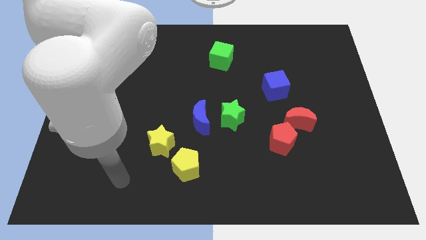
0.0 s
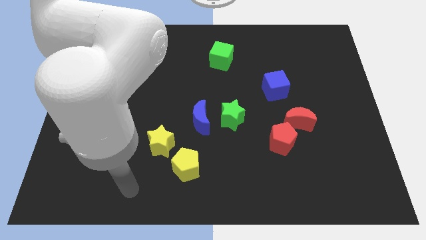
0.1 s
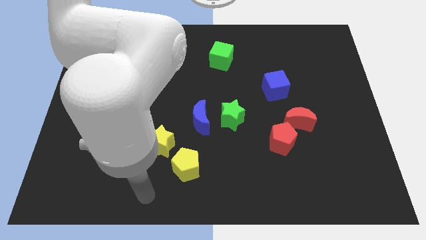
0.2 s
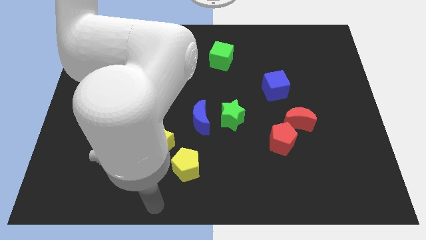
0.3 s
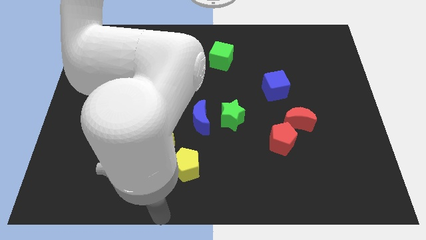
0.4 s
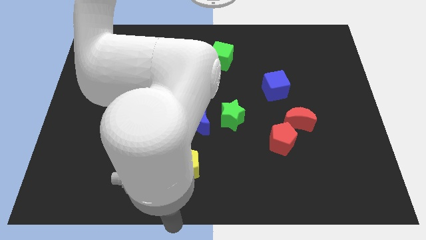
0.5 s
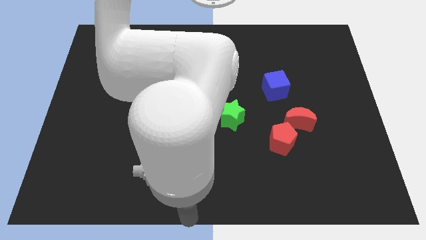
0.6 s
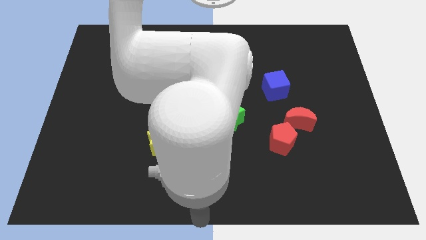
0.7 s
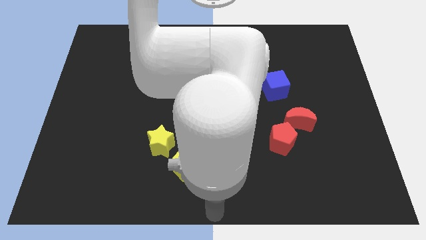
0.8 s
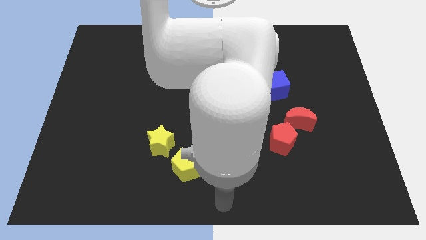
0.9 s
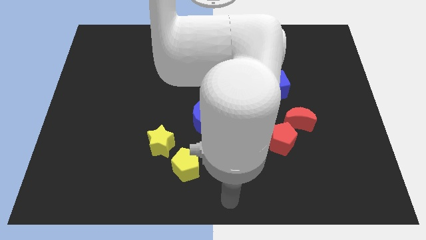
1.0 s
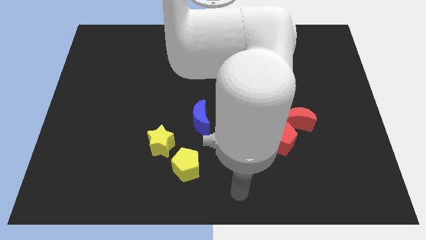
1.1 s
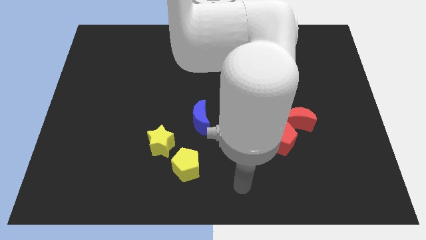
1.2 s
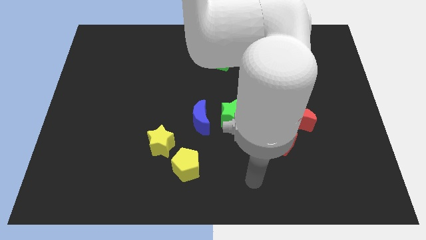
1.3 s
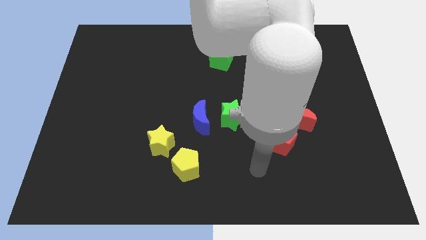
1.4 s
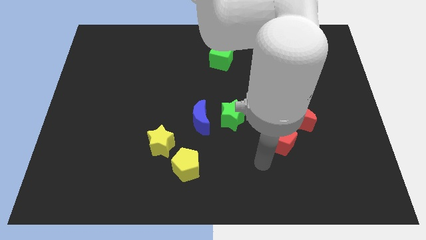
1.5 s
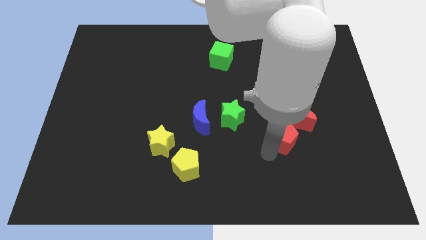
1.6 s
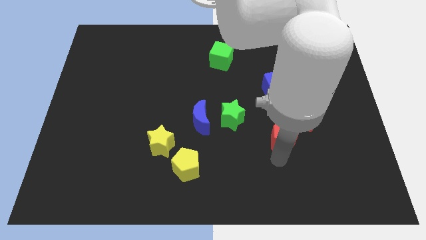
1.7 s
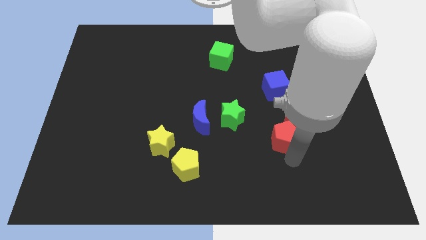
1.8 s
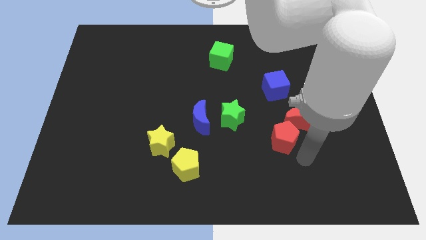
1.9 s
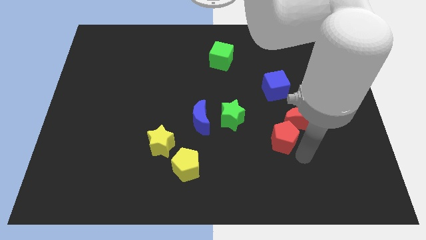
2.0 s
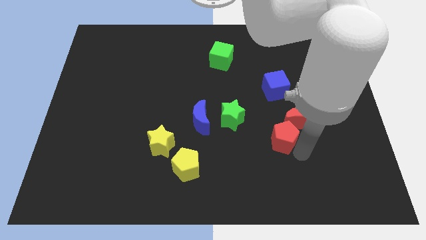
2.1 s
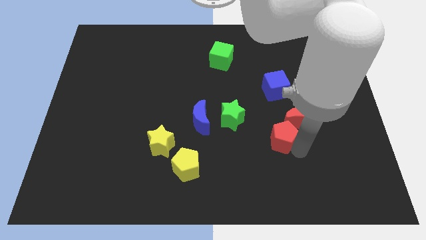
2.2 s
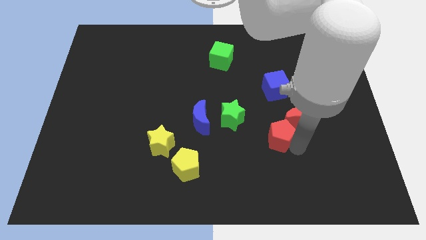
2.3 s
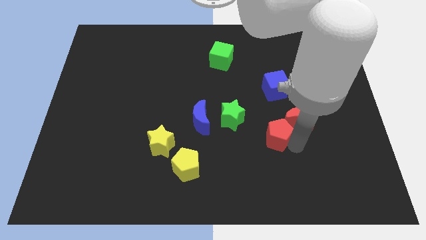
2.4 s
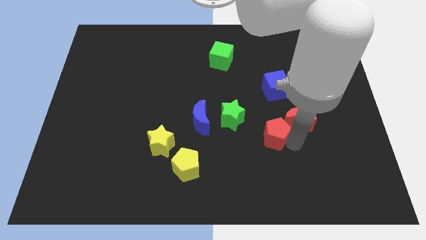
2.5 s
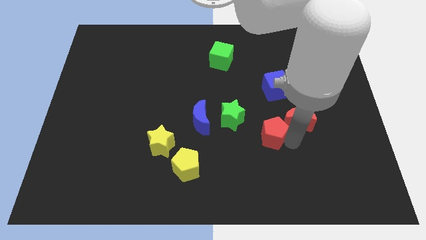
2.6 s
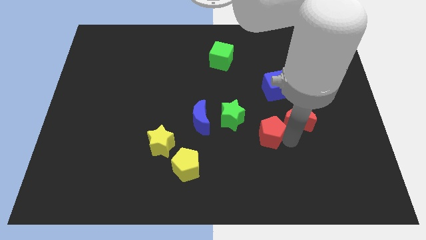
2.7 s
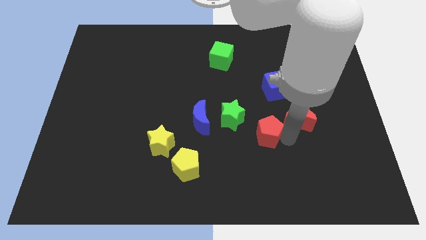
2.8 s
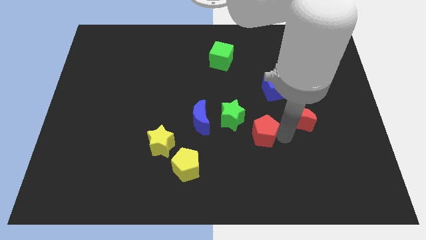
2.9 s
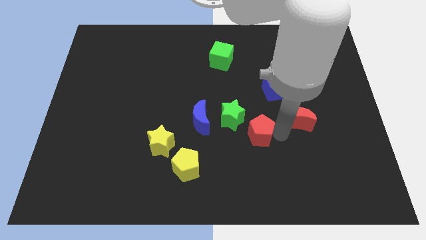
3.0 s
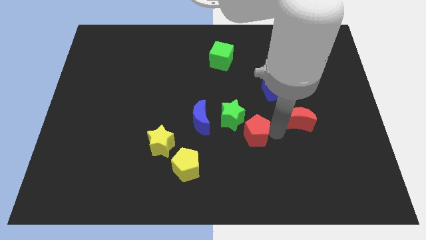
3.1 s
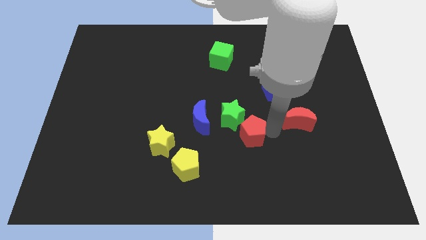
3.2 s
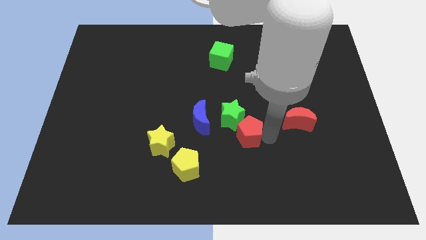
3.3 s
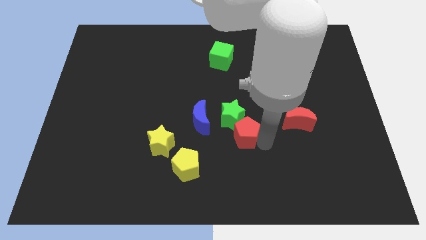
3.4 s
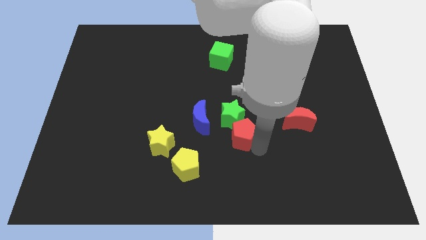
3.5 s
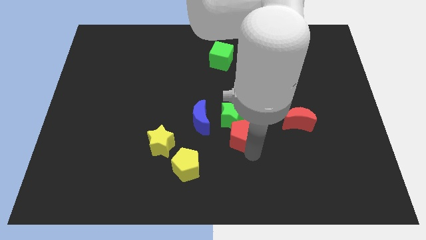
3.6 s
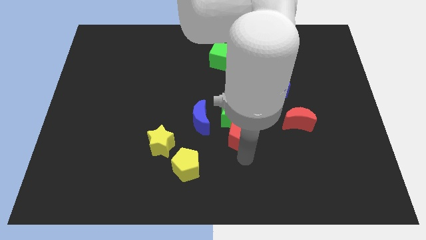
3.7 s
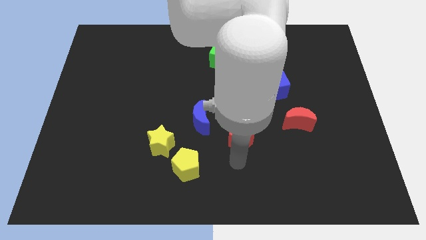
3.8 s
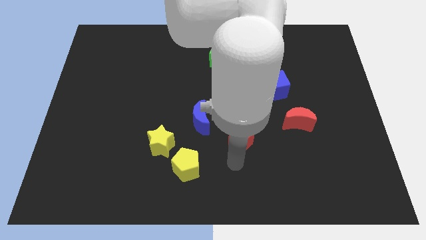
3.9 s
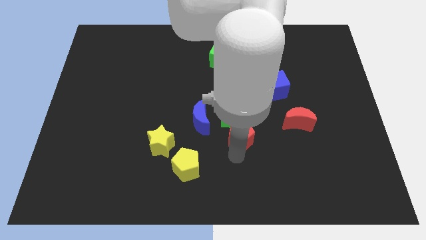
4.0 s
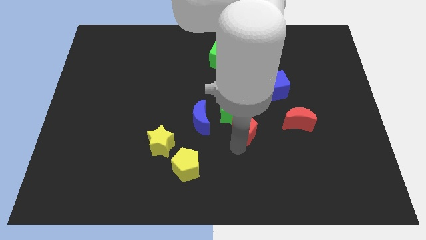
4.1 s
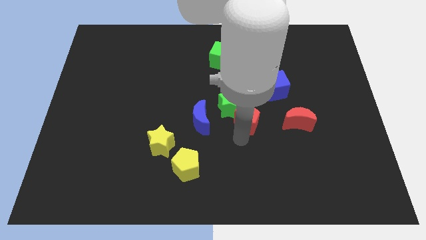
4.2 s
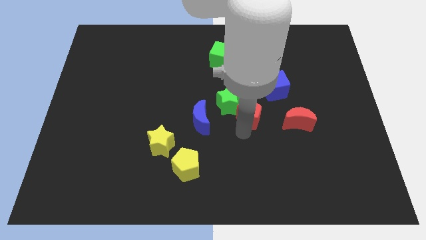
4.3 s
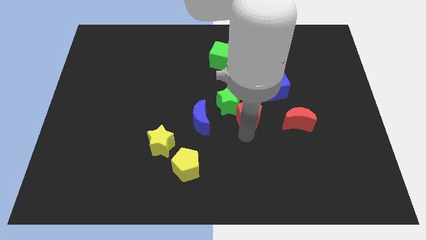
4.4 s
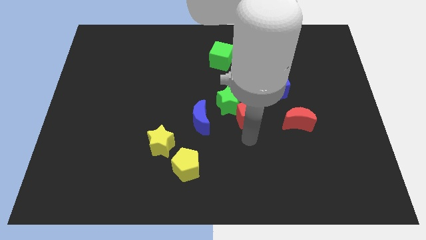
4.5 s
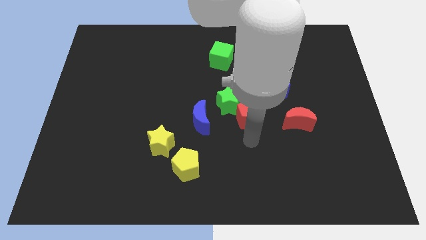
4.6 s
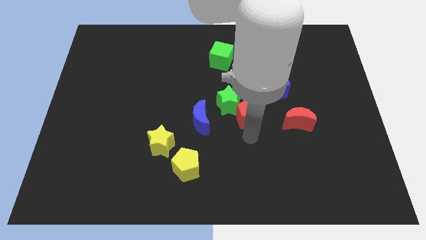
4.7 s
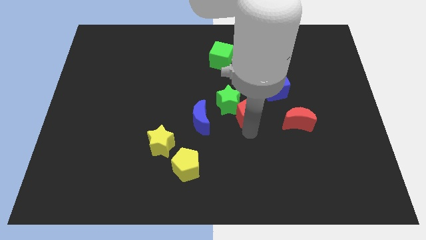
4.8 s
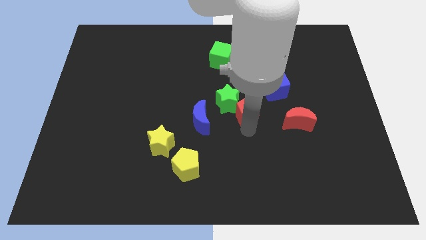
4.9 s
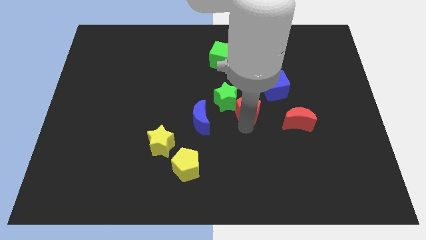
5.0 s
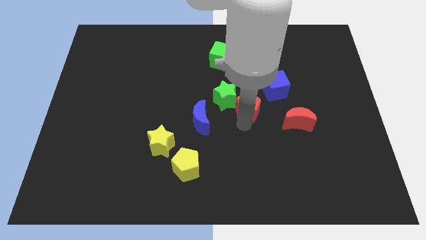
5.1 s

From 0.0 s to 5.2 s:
slightly slide the red pentagon up

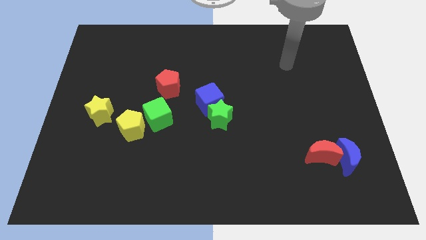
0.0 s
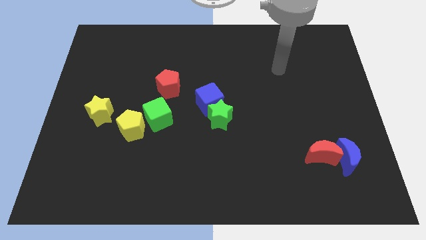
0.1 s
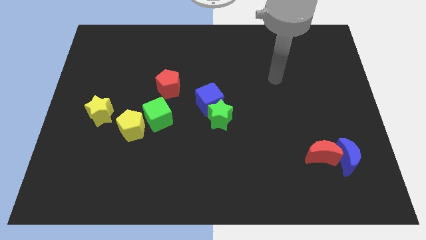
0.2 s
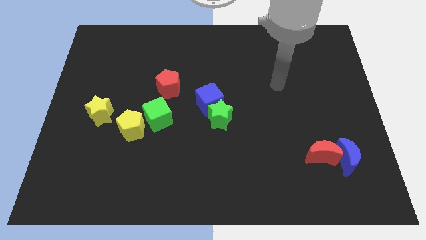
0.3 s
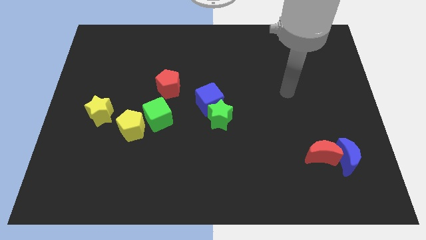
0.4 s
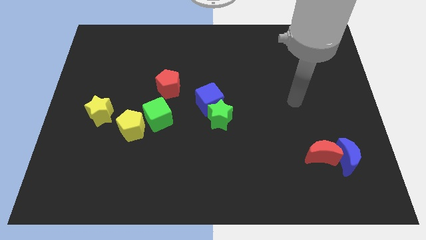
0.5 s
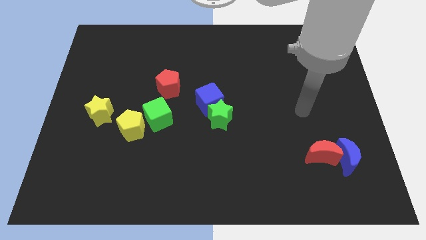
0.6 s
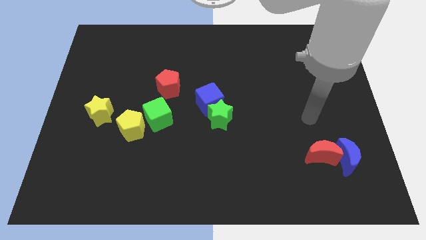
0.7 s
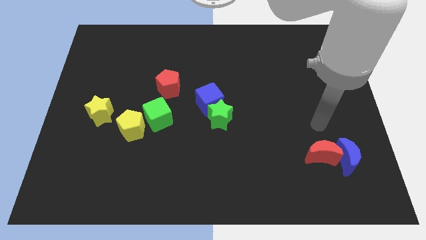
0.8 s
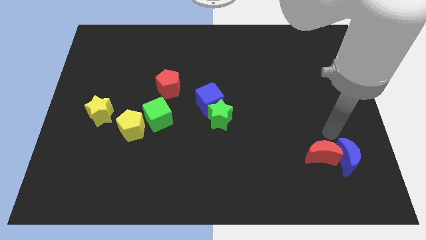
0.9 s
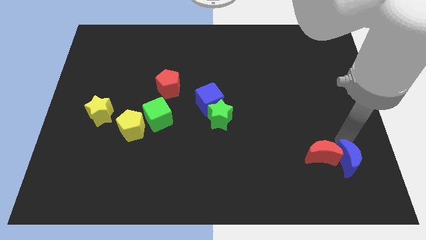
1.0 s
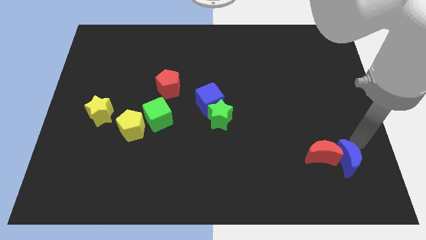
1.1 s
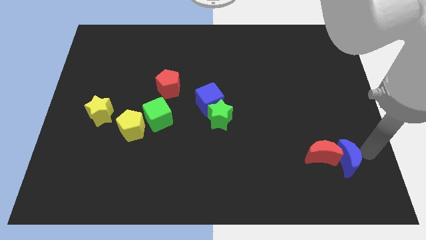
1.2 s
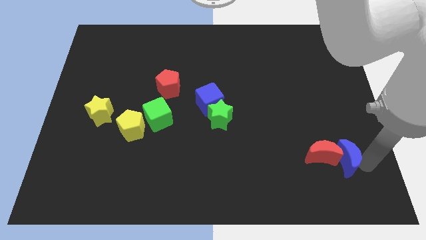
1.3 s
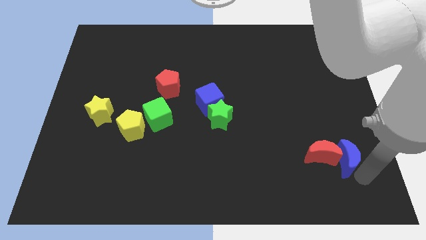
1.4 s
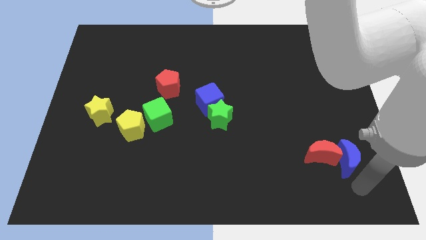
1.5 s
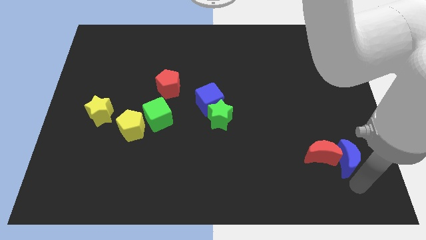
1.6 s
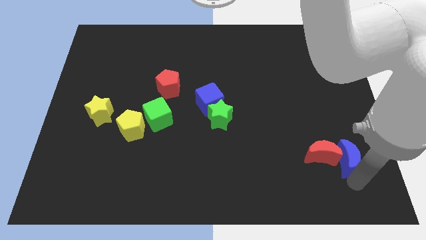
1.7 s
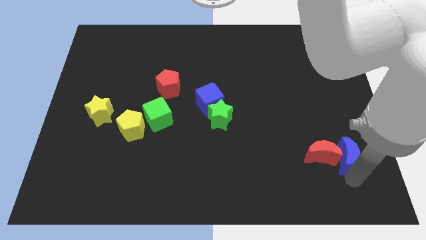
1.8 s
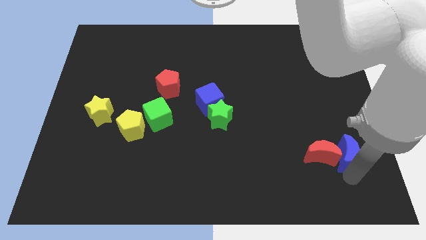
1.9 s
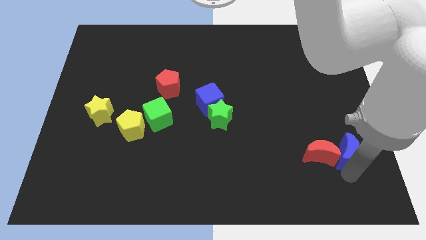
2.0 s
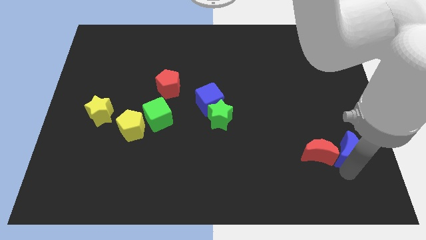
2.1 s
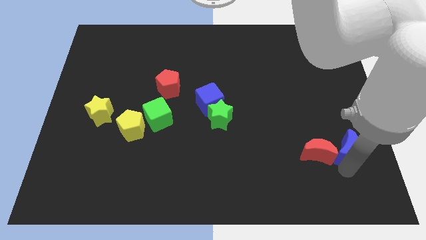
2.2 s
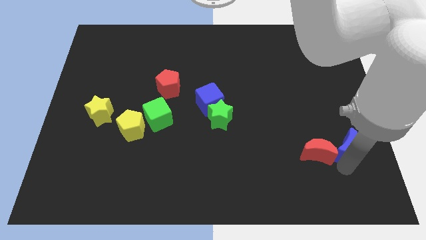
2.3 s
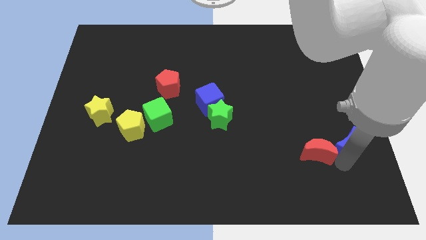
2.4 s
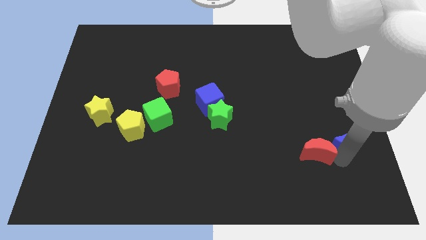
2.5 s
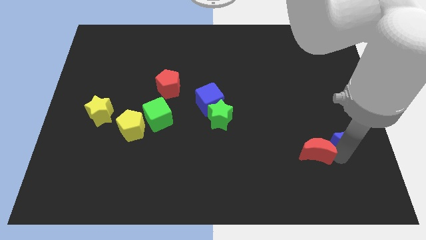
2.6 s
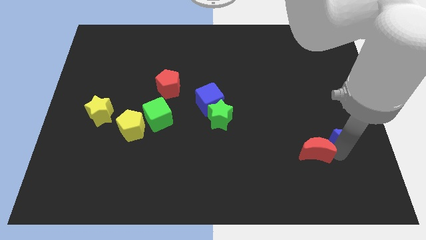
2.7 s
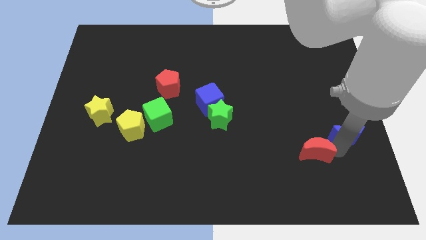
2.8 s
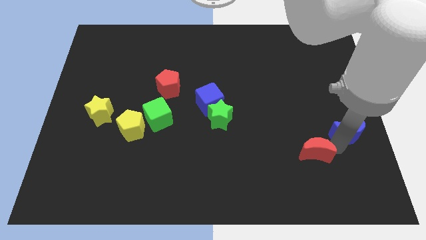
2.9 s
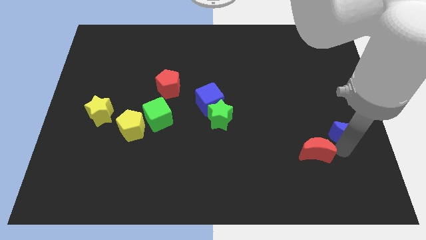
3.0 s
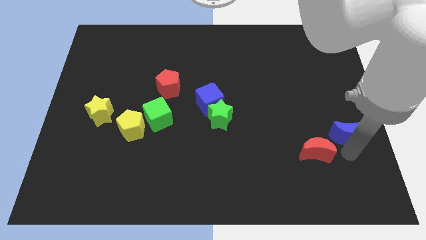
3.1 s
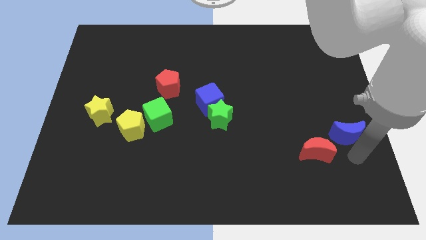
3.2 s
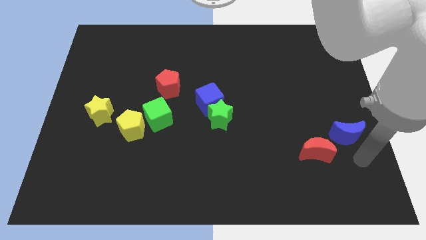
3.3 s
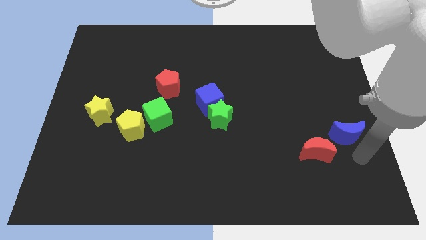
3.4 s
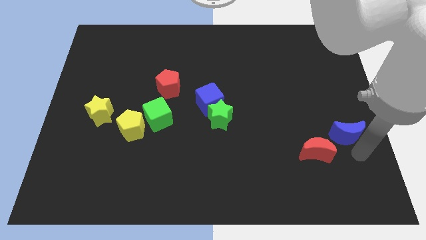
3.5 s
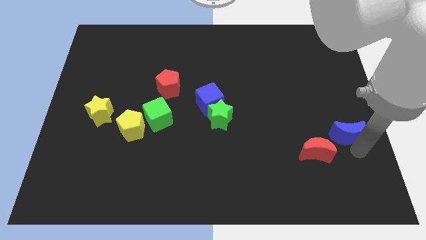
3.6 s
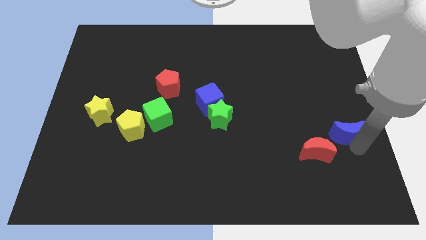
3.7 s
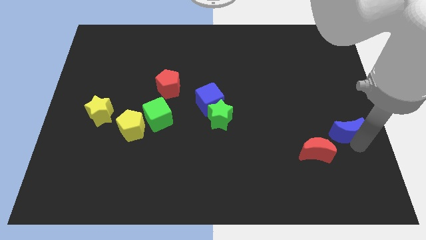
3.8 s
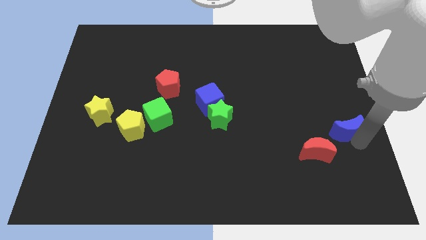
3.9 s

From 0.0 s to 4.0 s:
move the blue moon somewhat upwards
